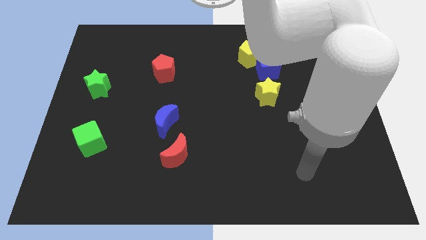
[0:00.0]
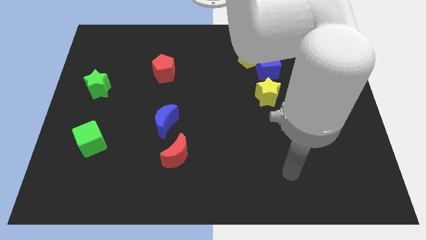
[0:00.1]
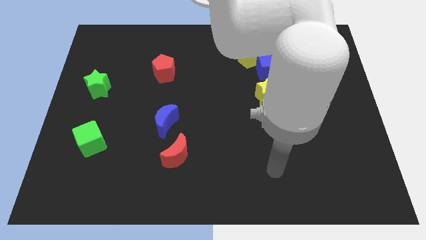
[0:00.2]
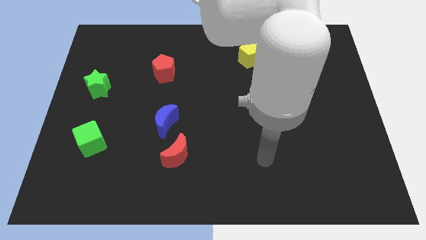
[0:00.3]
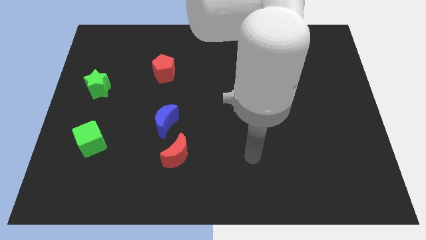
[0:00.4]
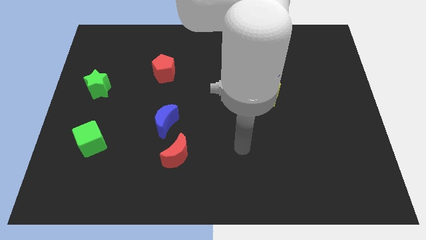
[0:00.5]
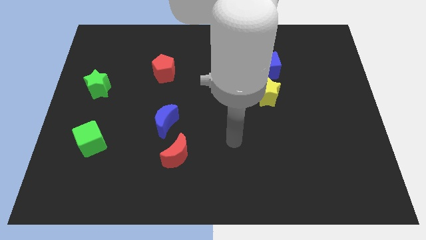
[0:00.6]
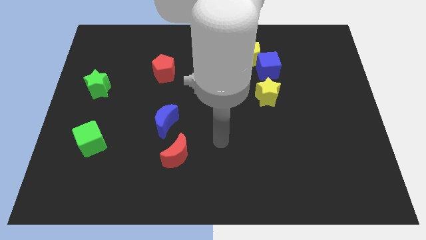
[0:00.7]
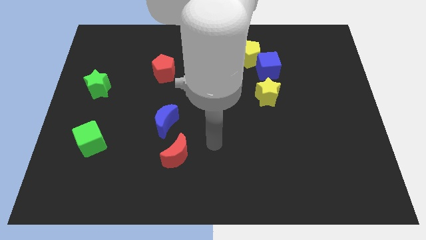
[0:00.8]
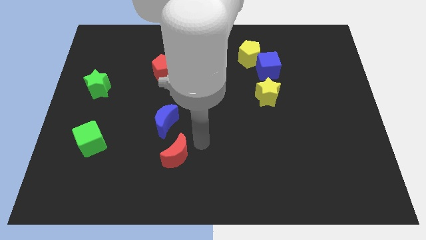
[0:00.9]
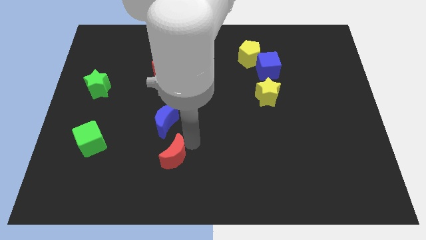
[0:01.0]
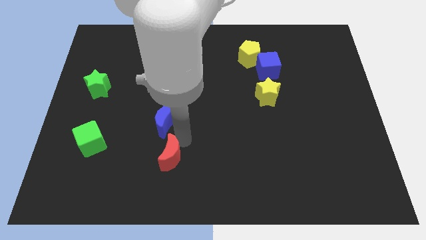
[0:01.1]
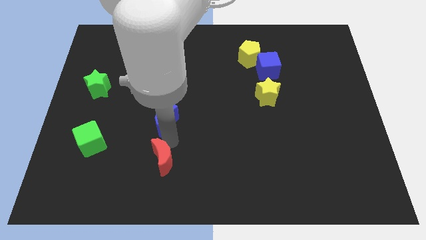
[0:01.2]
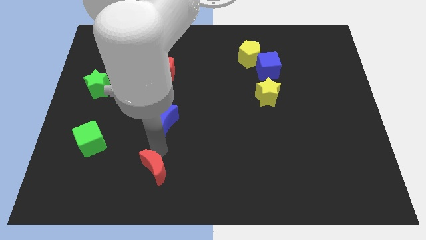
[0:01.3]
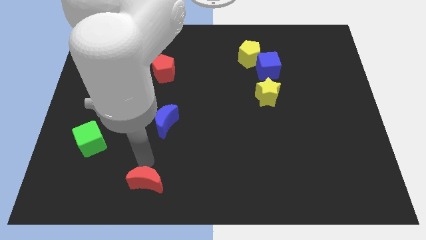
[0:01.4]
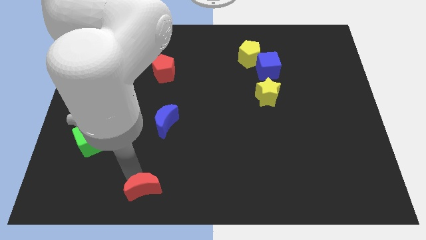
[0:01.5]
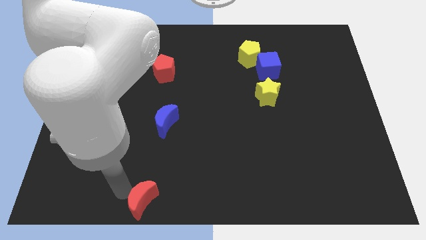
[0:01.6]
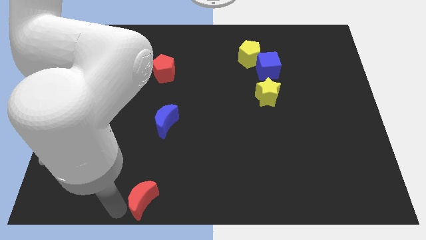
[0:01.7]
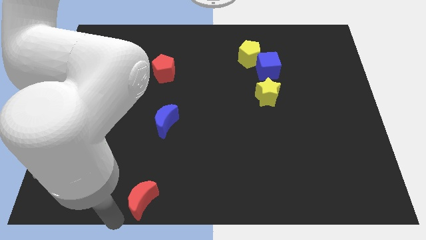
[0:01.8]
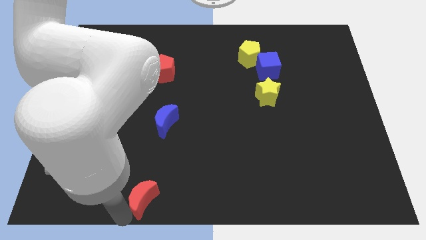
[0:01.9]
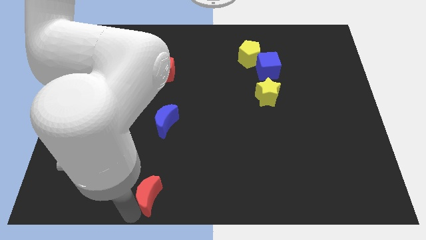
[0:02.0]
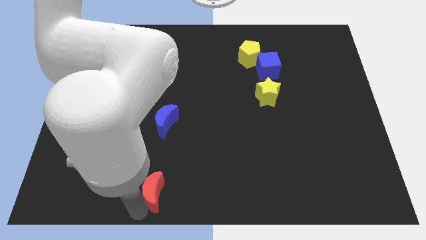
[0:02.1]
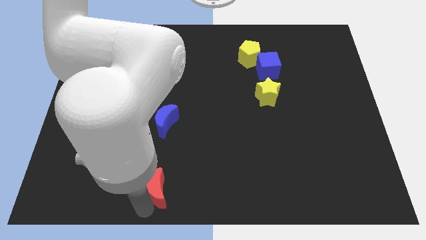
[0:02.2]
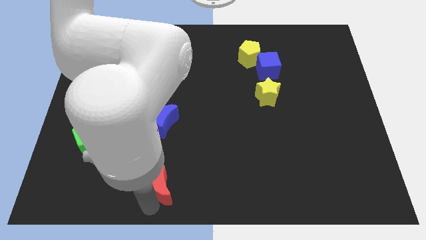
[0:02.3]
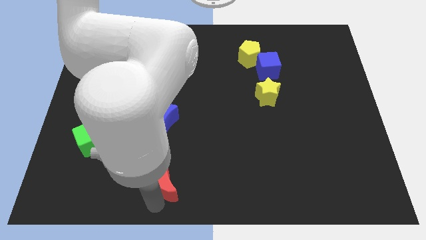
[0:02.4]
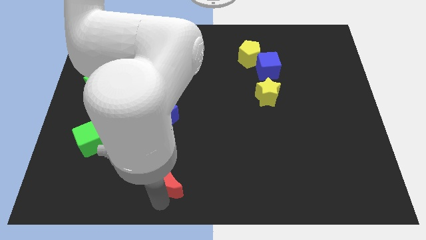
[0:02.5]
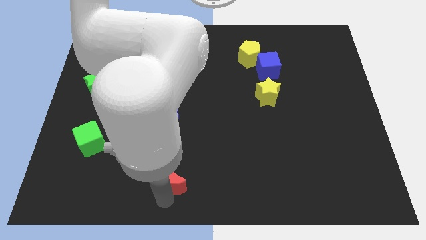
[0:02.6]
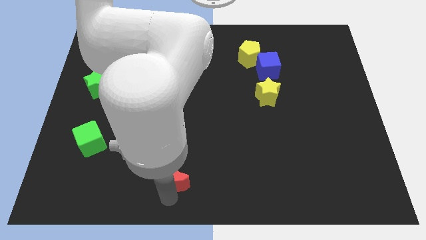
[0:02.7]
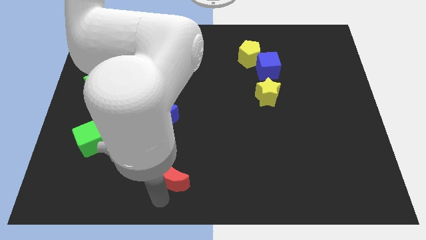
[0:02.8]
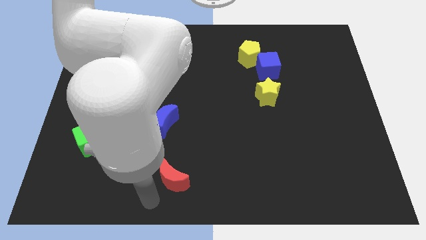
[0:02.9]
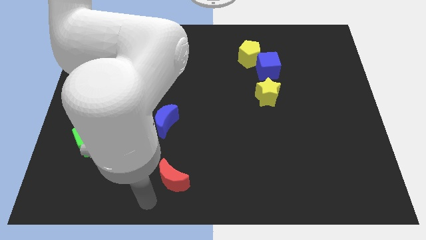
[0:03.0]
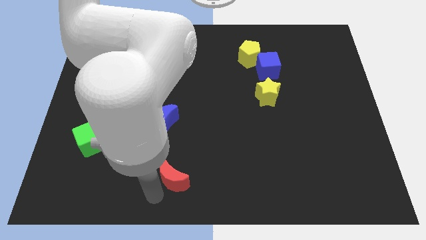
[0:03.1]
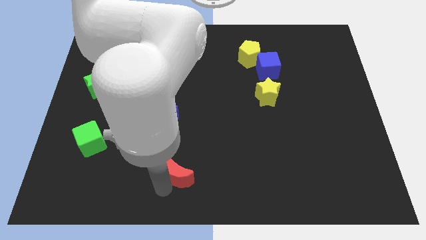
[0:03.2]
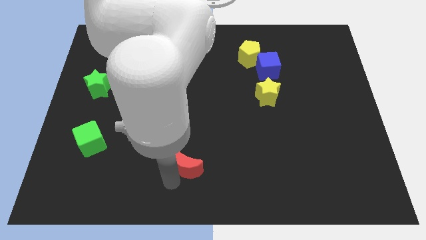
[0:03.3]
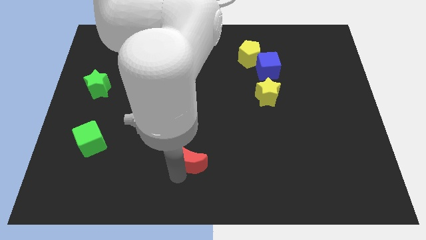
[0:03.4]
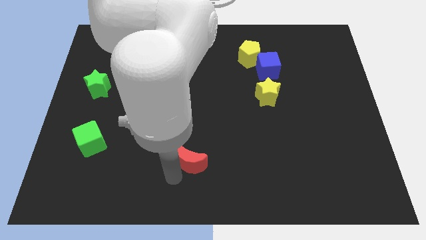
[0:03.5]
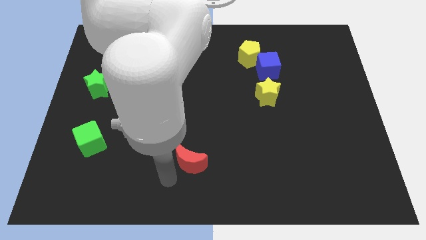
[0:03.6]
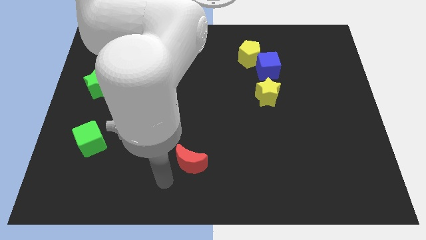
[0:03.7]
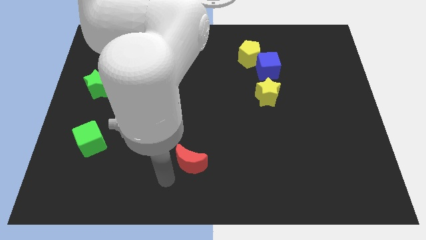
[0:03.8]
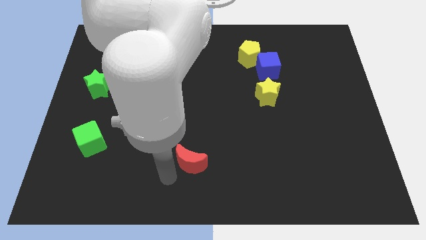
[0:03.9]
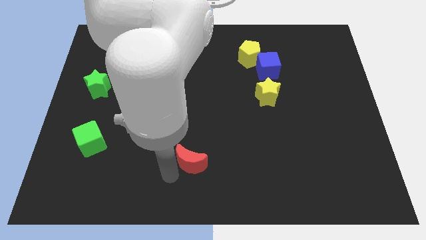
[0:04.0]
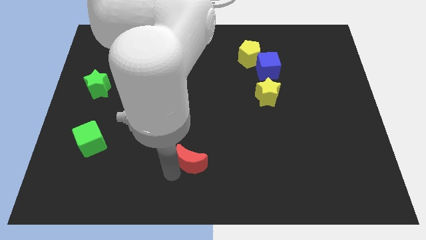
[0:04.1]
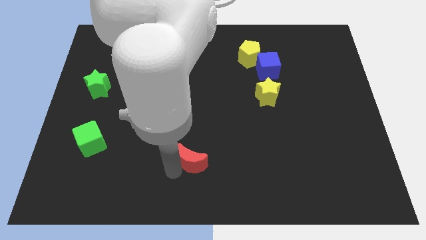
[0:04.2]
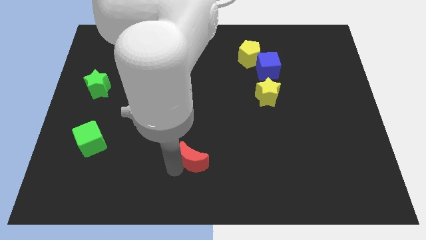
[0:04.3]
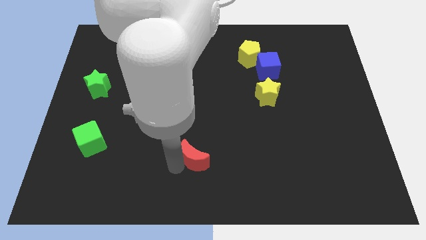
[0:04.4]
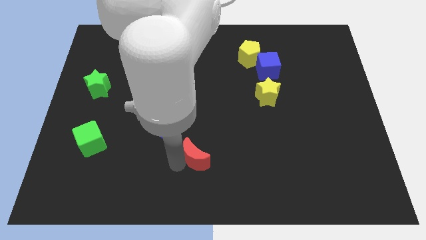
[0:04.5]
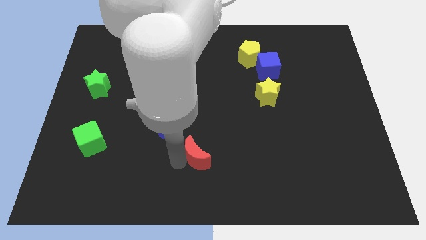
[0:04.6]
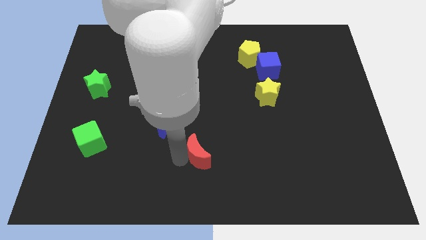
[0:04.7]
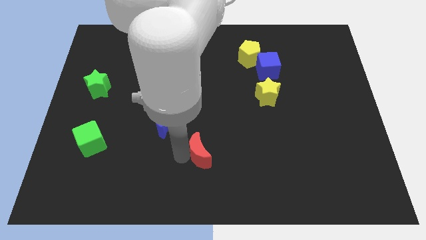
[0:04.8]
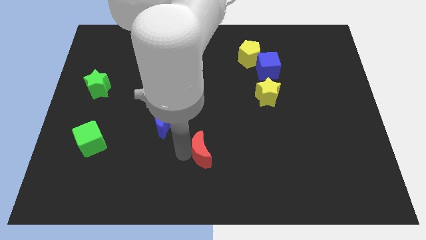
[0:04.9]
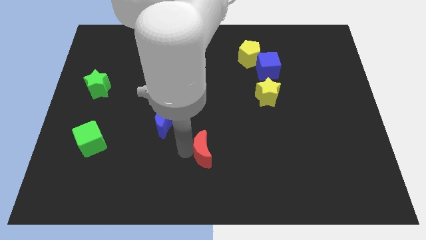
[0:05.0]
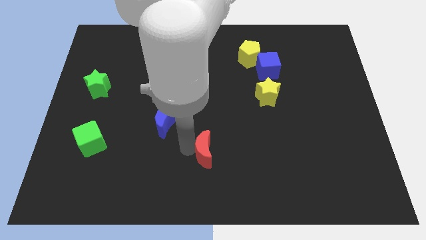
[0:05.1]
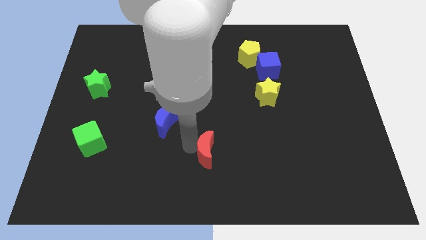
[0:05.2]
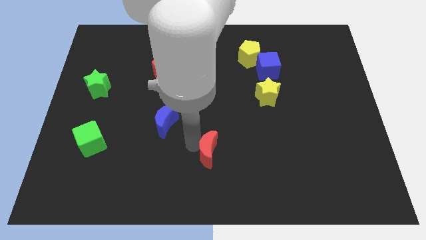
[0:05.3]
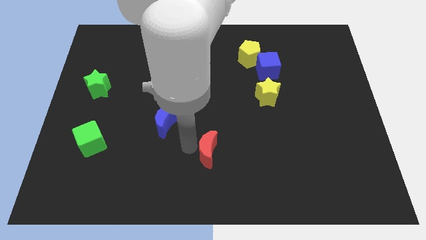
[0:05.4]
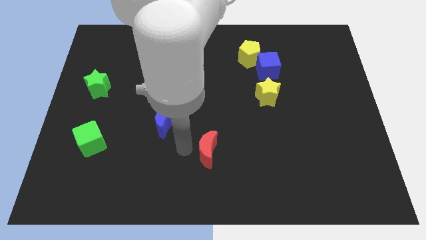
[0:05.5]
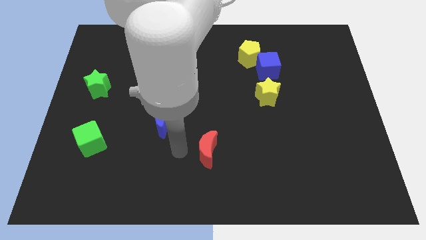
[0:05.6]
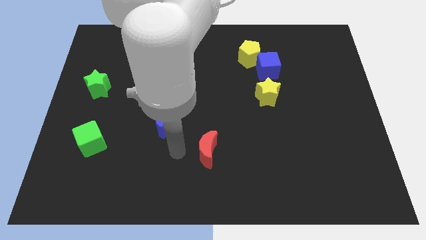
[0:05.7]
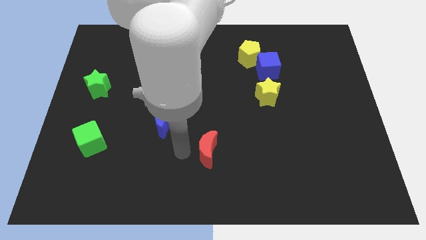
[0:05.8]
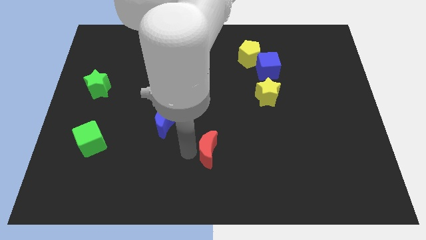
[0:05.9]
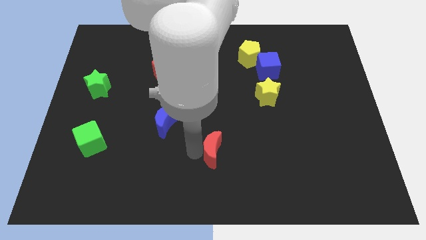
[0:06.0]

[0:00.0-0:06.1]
push the red moon right a little

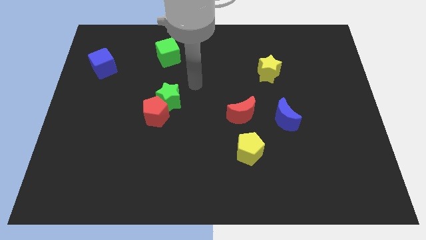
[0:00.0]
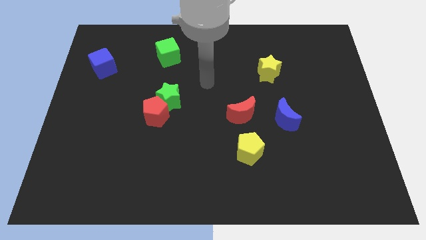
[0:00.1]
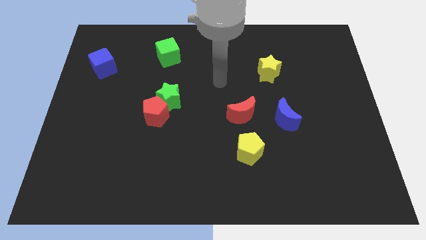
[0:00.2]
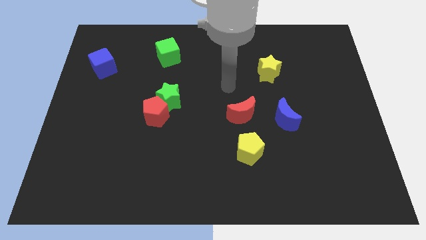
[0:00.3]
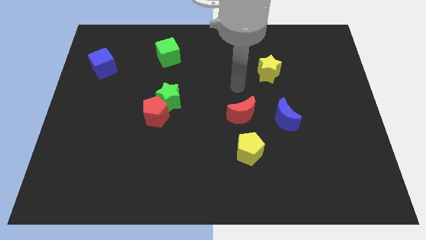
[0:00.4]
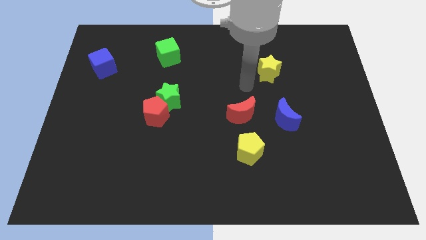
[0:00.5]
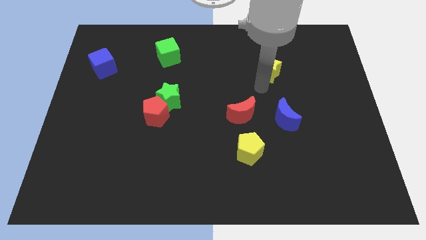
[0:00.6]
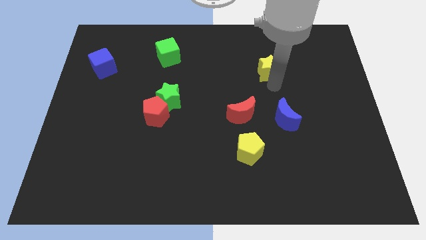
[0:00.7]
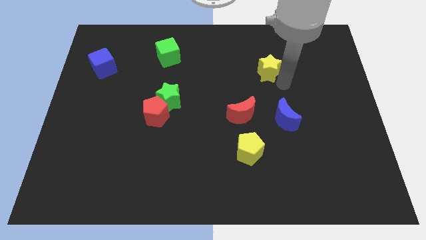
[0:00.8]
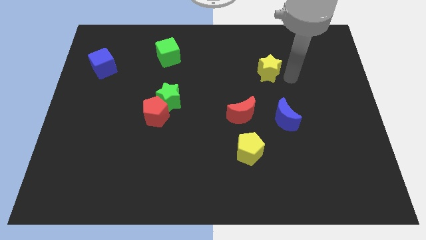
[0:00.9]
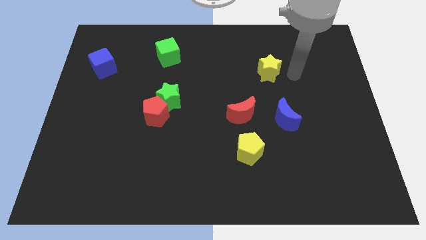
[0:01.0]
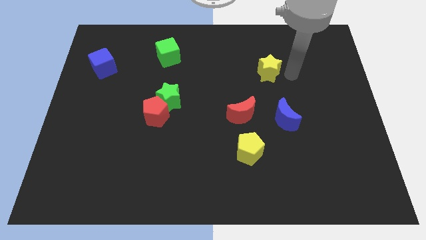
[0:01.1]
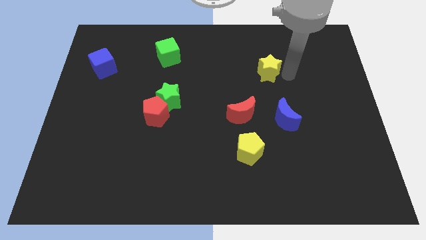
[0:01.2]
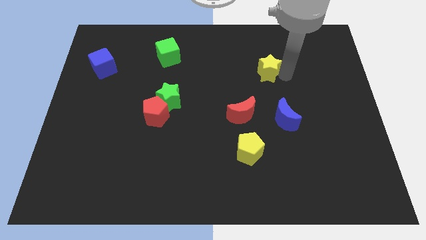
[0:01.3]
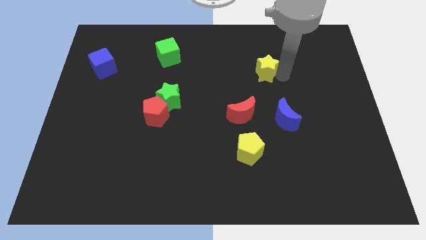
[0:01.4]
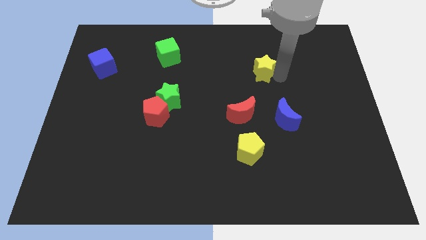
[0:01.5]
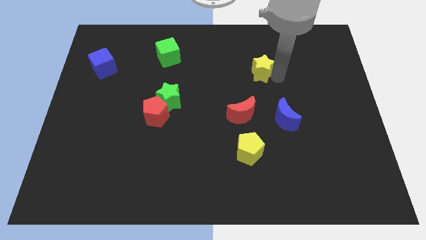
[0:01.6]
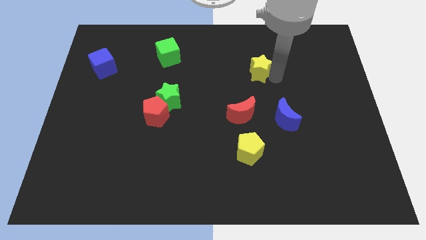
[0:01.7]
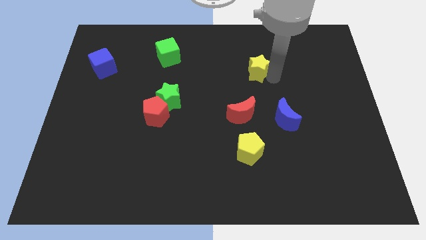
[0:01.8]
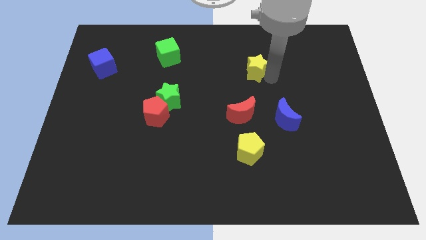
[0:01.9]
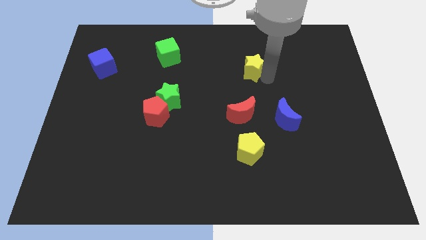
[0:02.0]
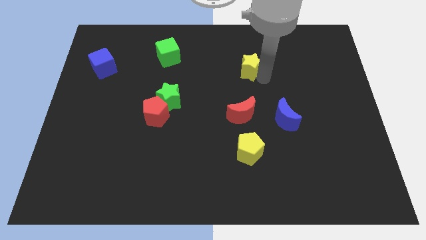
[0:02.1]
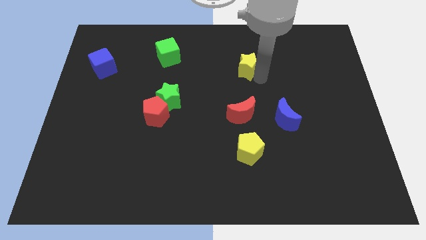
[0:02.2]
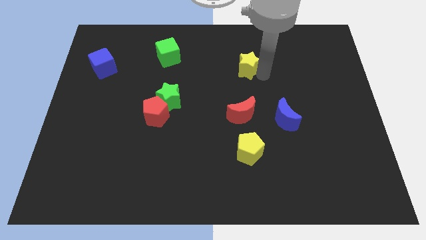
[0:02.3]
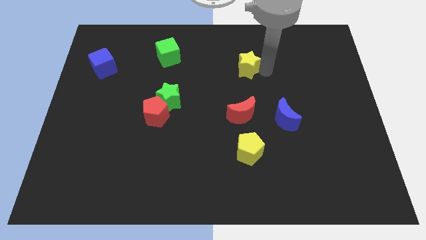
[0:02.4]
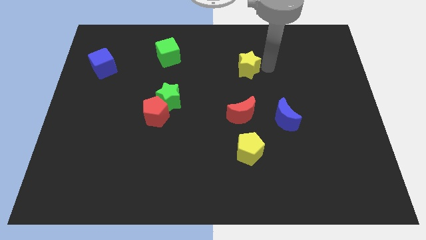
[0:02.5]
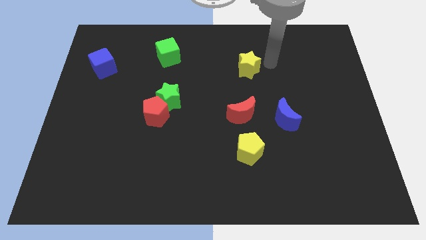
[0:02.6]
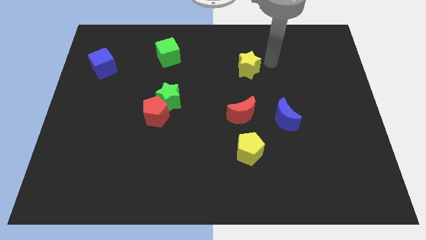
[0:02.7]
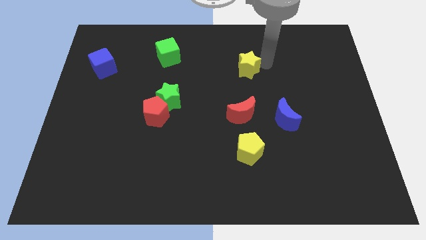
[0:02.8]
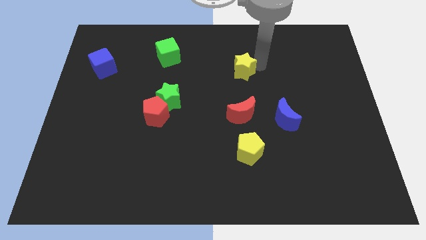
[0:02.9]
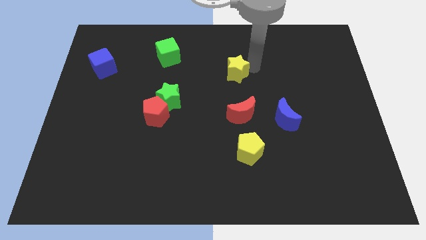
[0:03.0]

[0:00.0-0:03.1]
slightly slide the yellow star left
